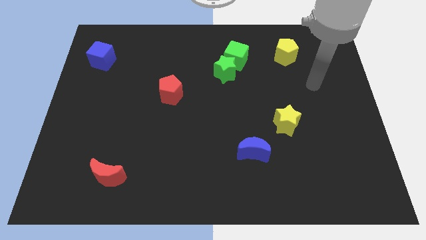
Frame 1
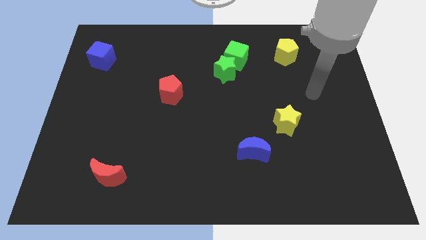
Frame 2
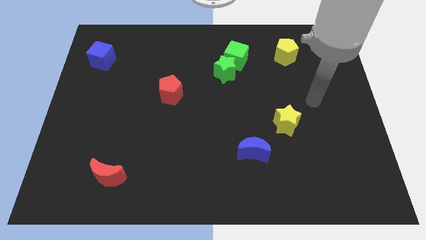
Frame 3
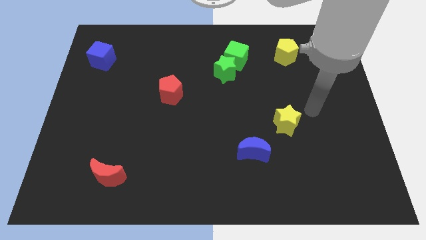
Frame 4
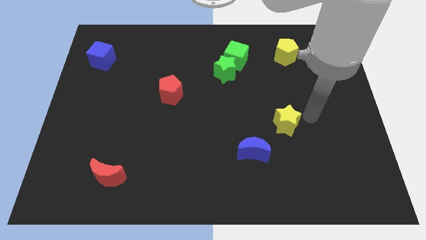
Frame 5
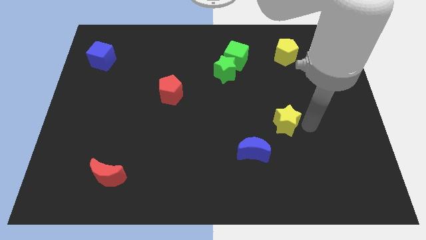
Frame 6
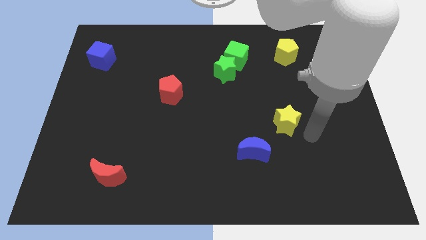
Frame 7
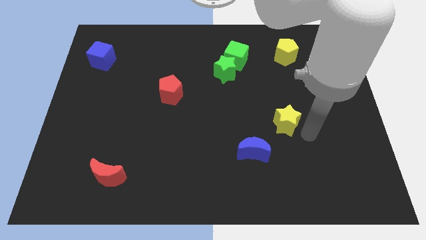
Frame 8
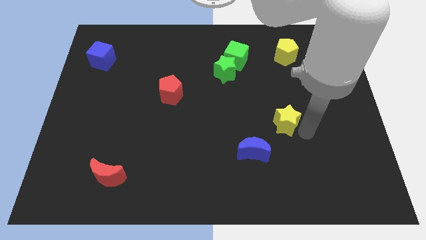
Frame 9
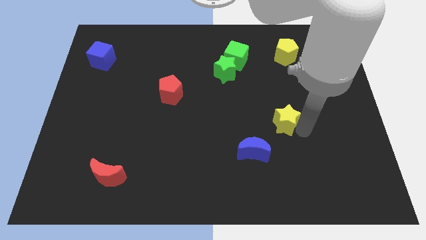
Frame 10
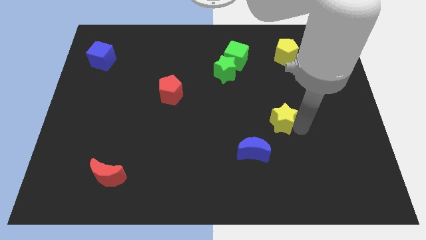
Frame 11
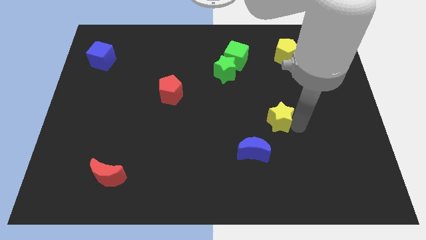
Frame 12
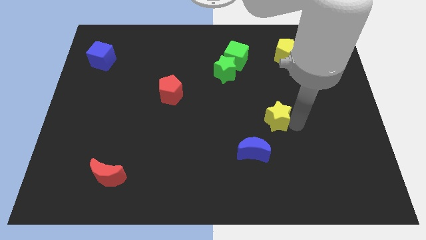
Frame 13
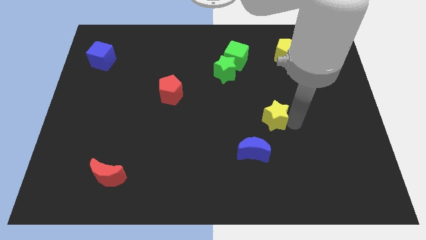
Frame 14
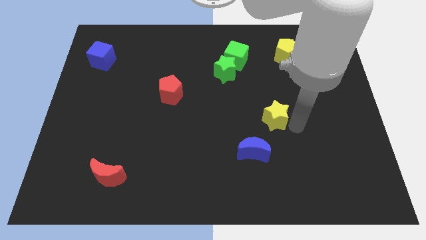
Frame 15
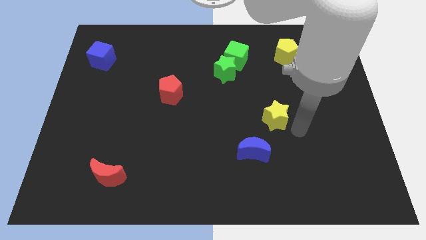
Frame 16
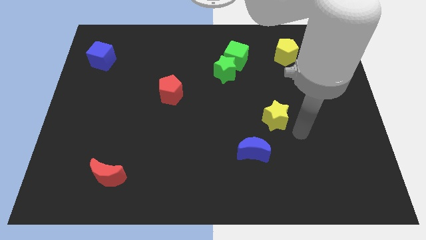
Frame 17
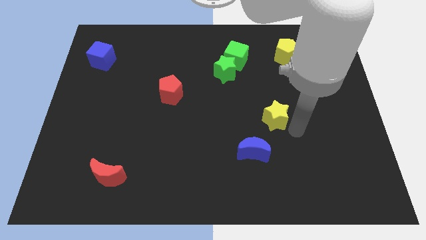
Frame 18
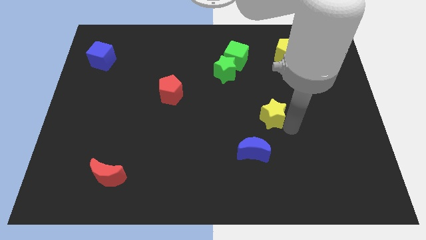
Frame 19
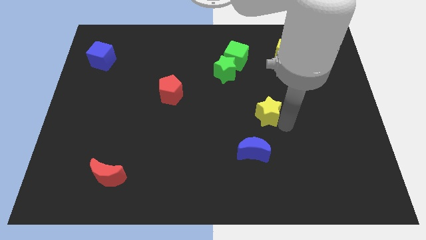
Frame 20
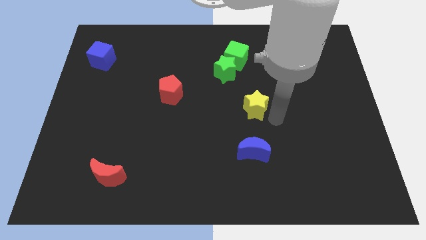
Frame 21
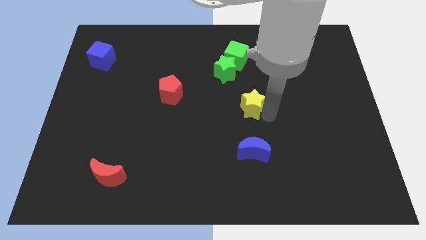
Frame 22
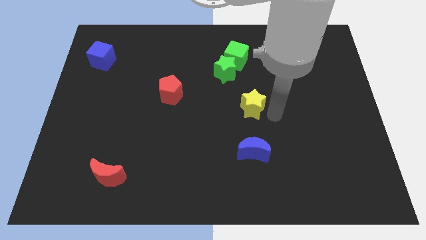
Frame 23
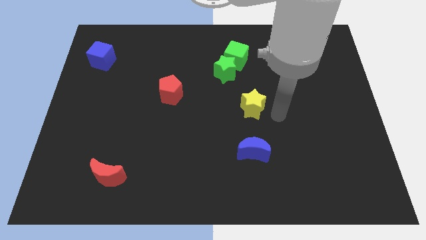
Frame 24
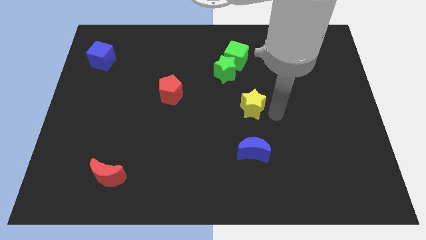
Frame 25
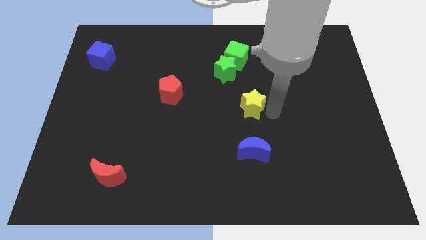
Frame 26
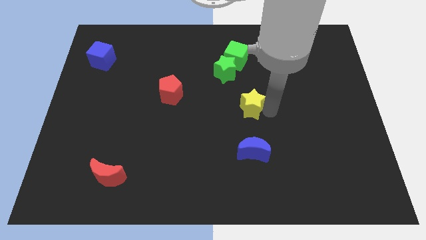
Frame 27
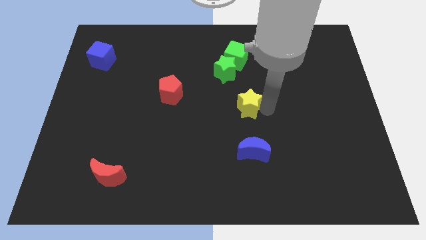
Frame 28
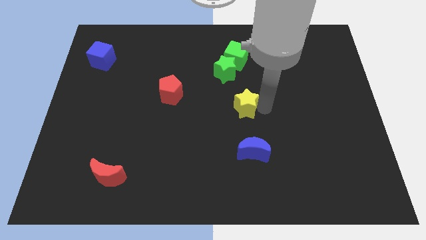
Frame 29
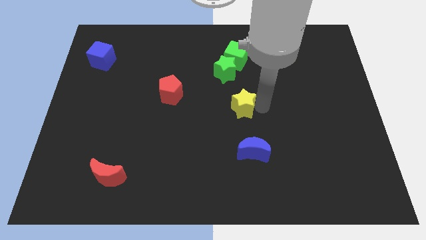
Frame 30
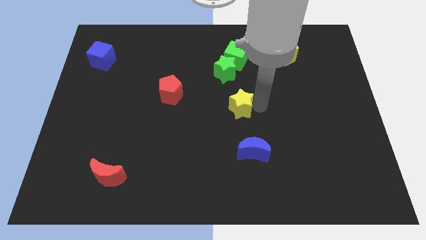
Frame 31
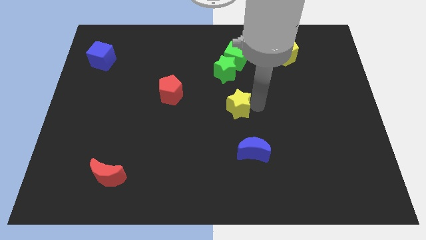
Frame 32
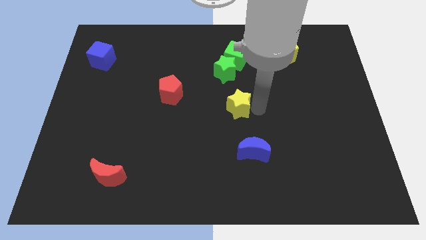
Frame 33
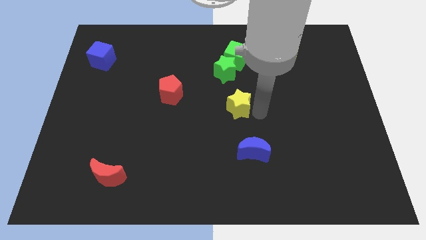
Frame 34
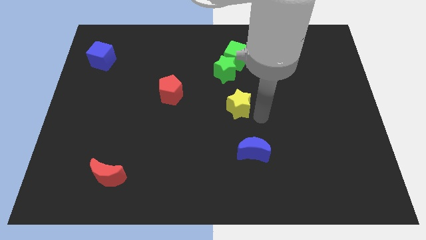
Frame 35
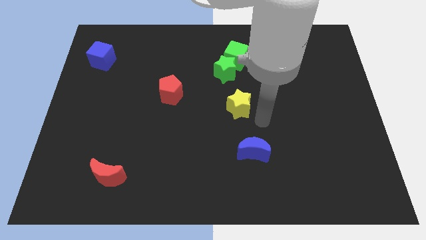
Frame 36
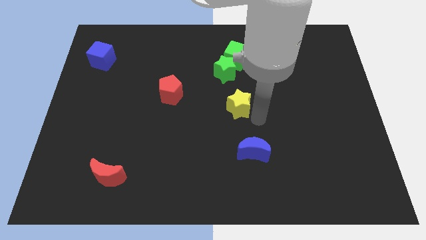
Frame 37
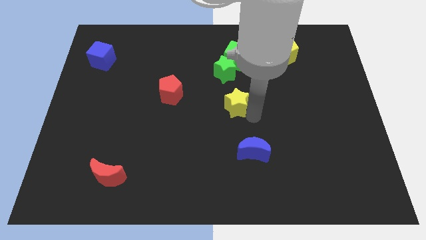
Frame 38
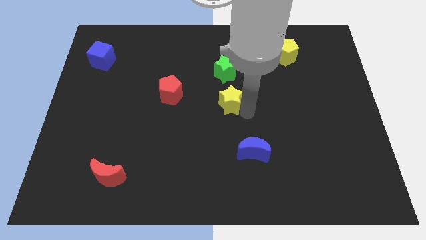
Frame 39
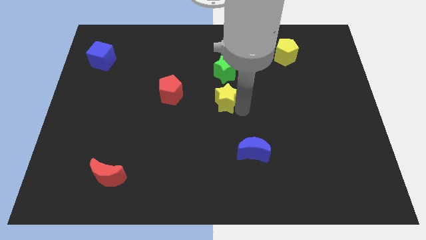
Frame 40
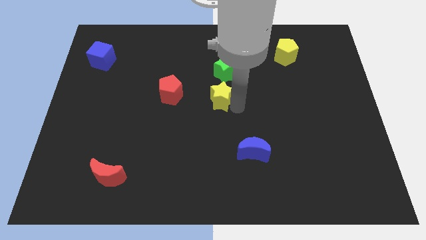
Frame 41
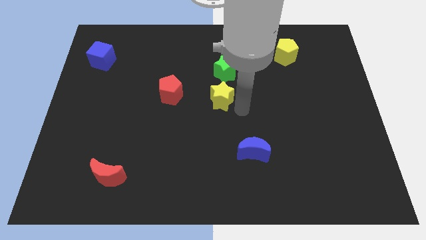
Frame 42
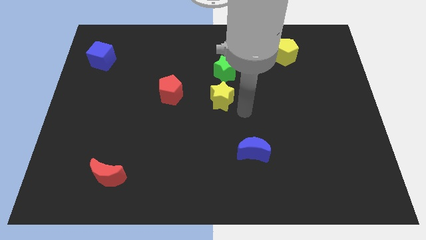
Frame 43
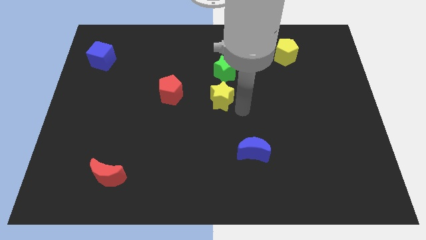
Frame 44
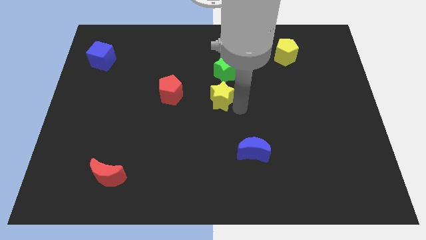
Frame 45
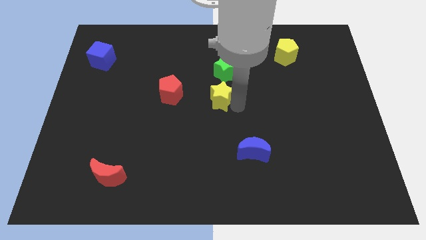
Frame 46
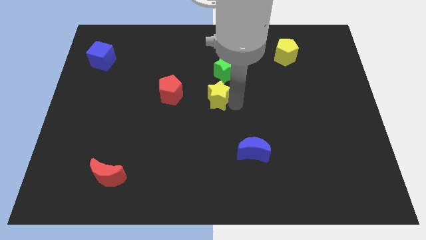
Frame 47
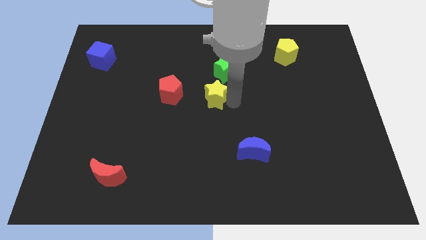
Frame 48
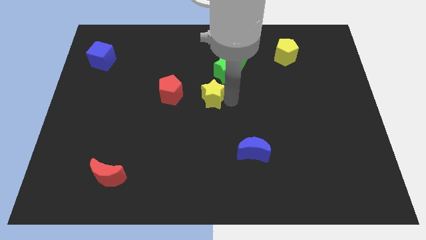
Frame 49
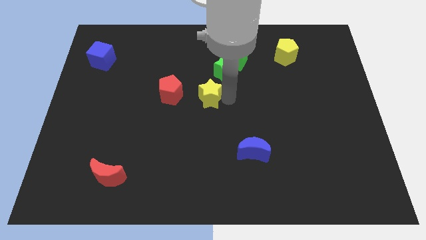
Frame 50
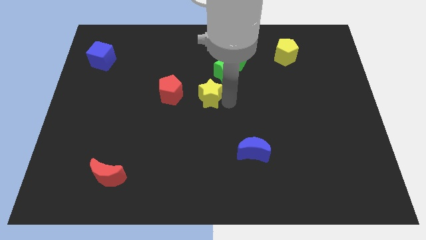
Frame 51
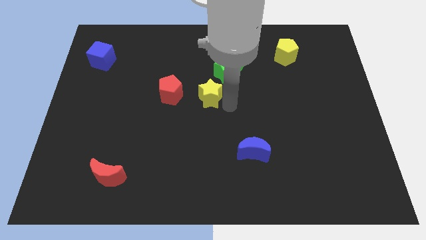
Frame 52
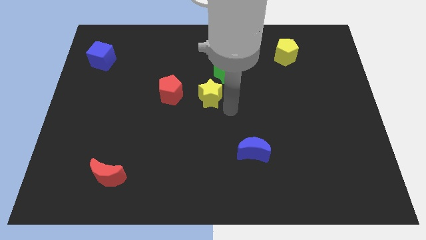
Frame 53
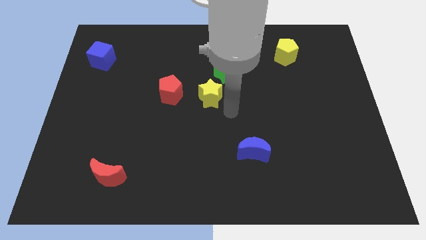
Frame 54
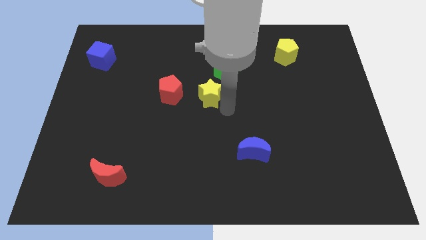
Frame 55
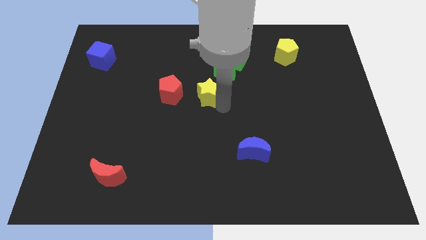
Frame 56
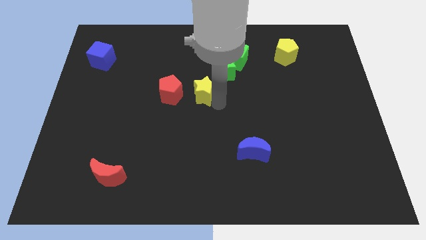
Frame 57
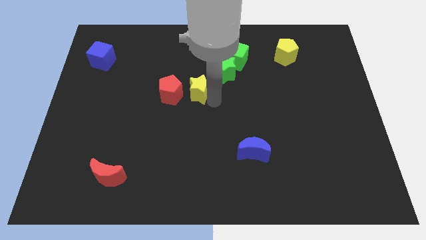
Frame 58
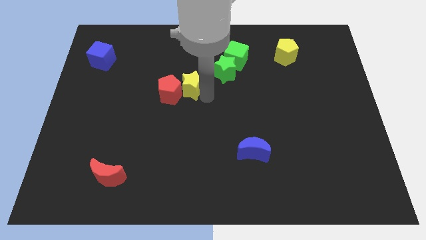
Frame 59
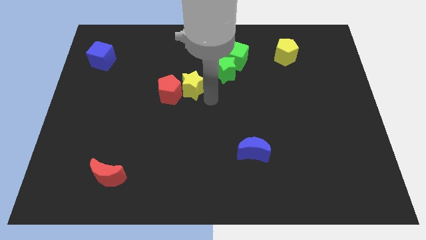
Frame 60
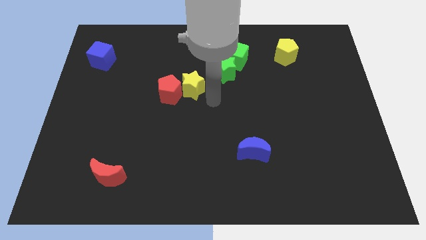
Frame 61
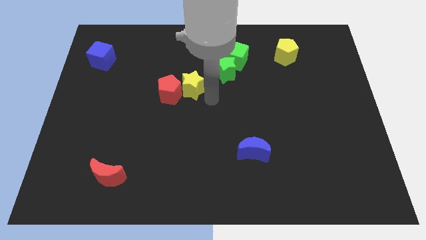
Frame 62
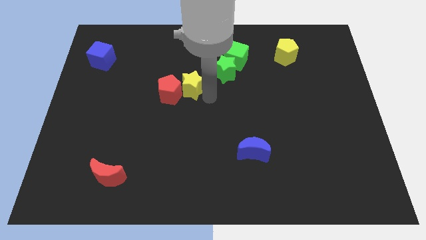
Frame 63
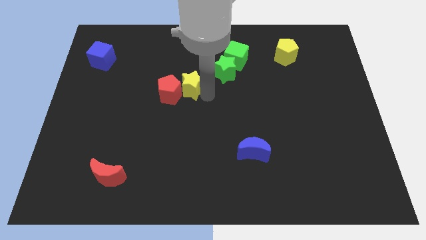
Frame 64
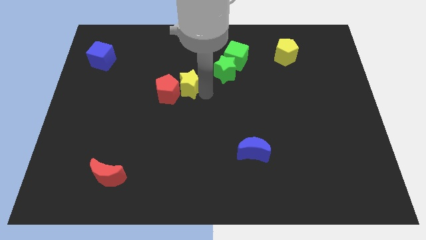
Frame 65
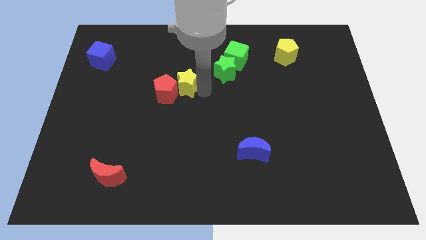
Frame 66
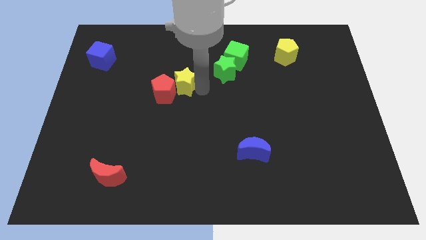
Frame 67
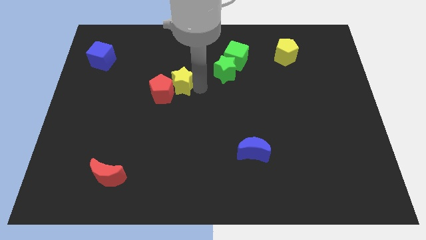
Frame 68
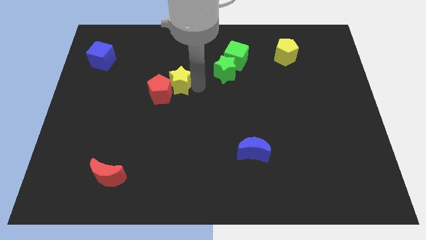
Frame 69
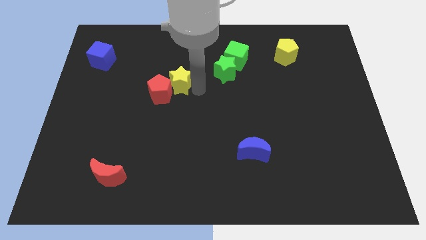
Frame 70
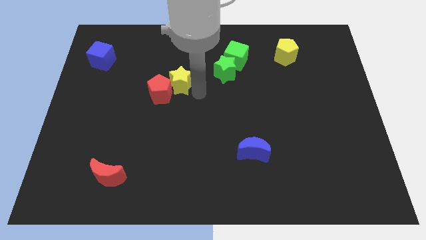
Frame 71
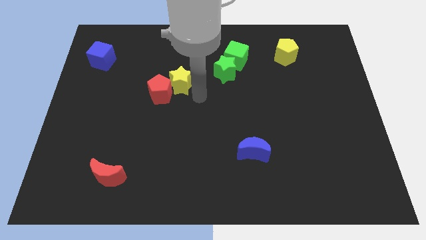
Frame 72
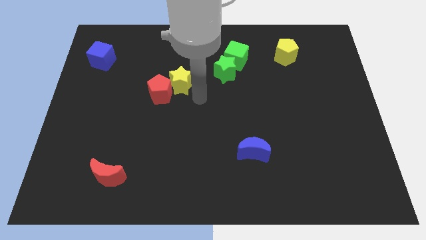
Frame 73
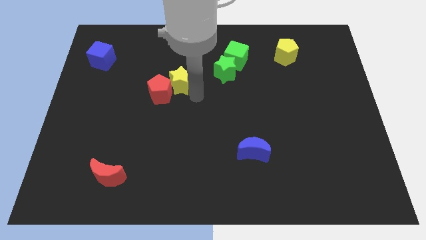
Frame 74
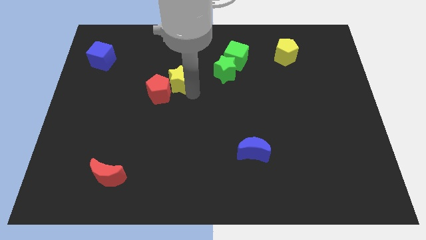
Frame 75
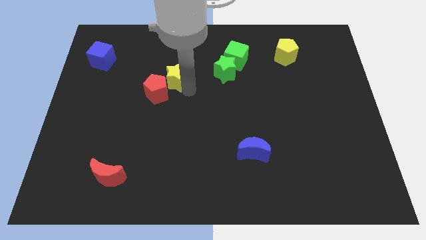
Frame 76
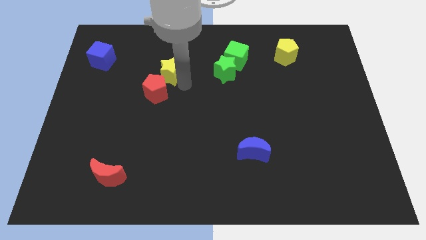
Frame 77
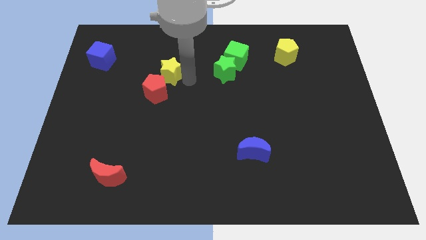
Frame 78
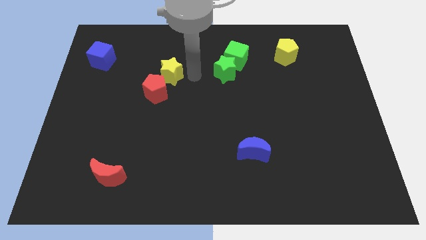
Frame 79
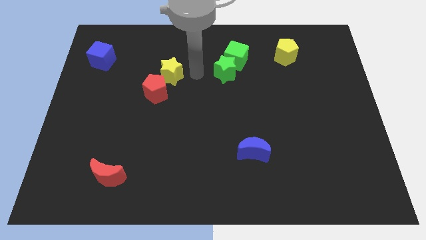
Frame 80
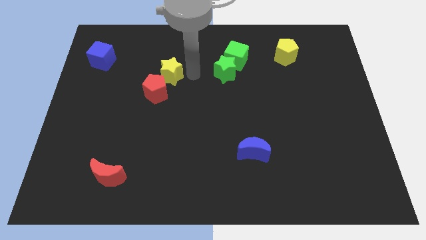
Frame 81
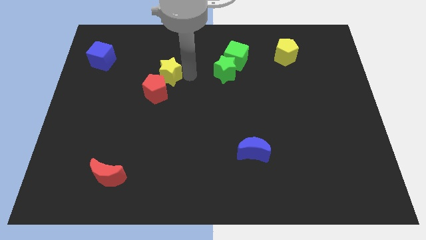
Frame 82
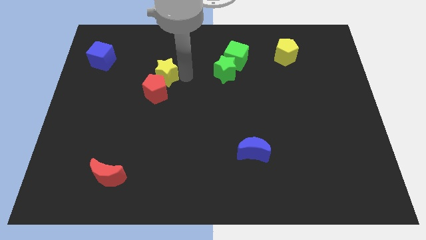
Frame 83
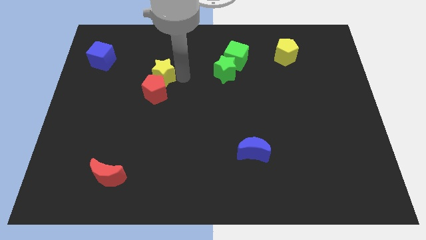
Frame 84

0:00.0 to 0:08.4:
slide the yellow star to the top left side of the red pentagon

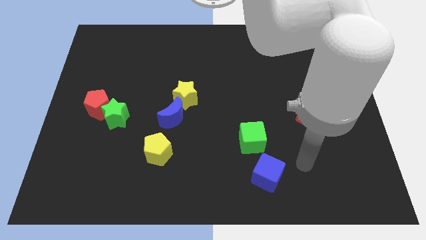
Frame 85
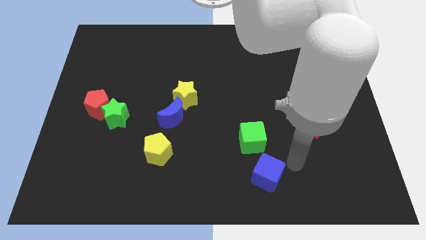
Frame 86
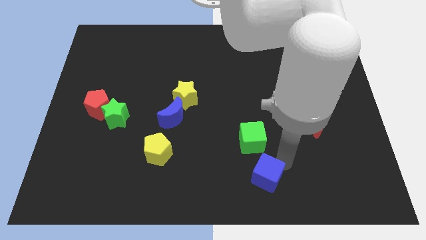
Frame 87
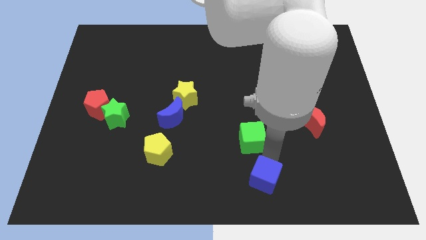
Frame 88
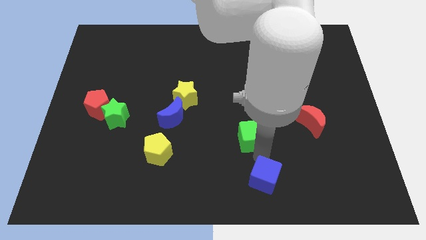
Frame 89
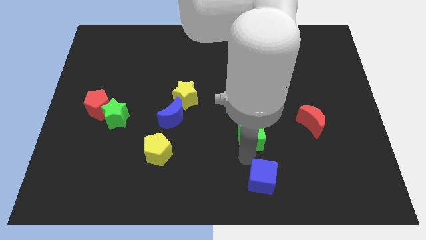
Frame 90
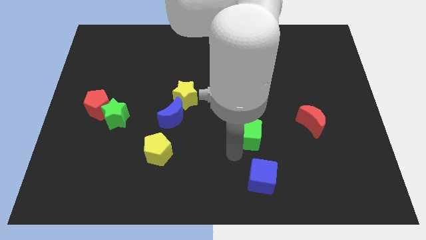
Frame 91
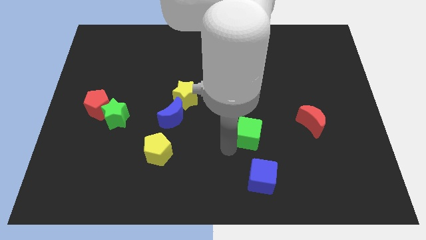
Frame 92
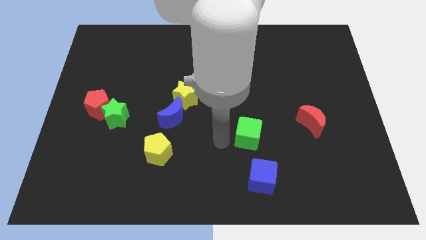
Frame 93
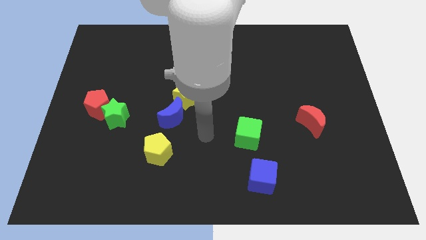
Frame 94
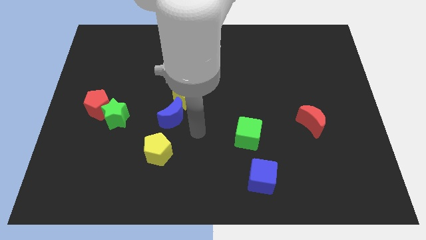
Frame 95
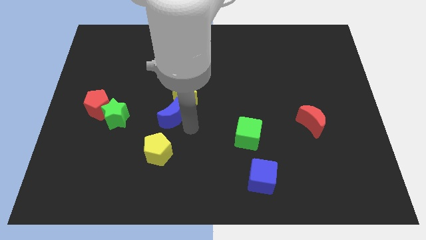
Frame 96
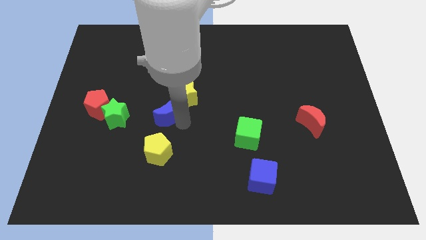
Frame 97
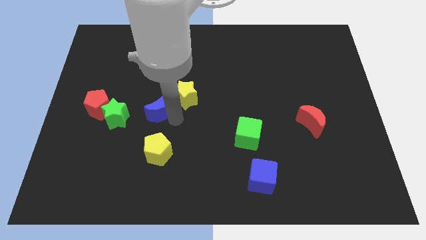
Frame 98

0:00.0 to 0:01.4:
put the blue moon to the left of the yellow star
